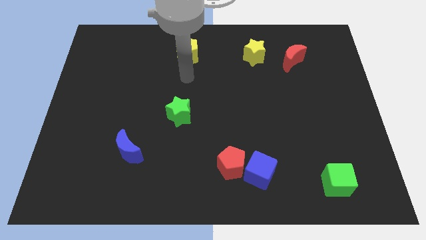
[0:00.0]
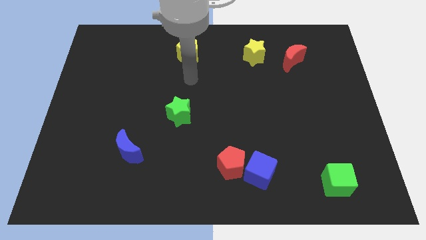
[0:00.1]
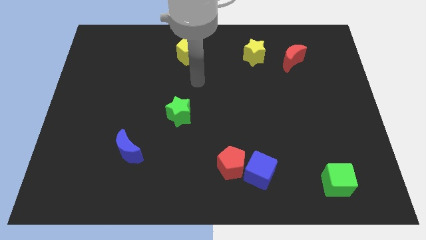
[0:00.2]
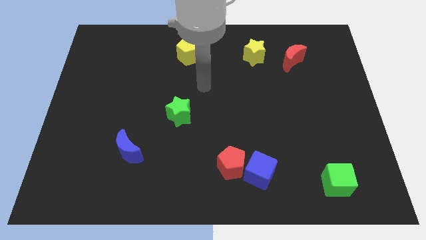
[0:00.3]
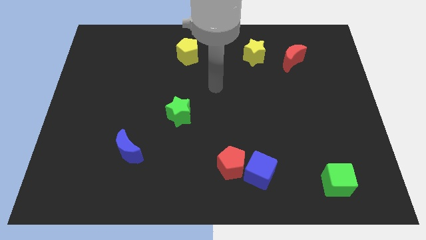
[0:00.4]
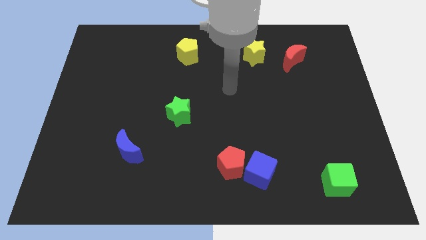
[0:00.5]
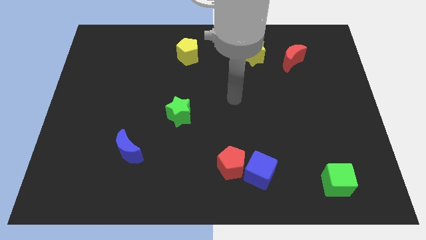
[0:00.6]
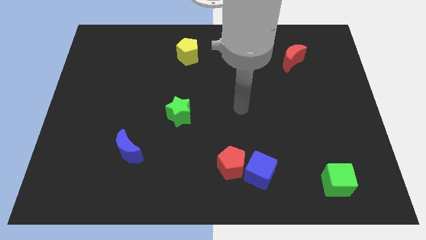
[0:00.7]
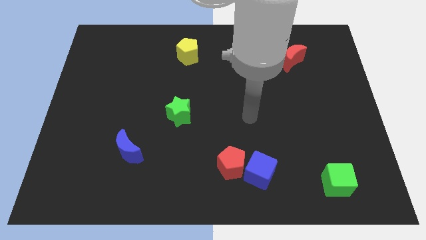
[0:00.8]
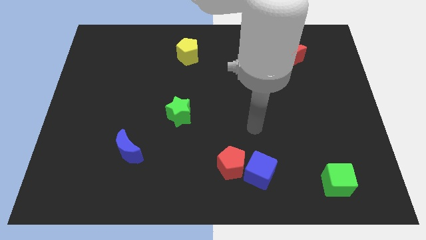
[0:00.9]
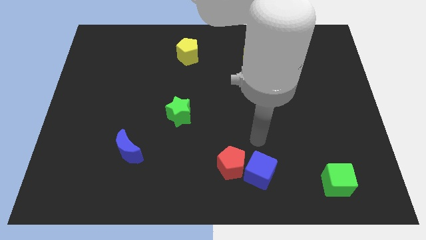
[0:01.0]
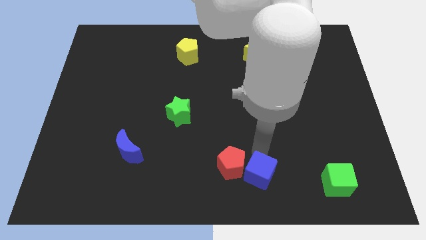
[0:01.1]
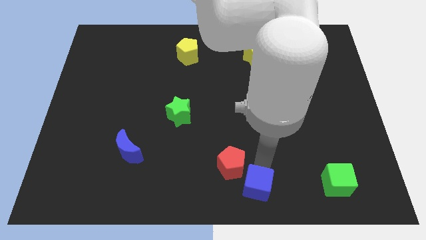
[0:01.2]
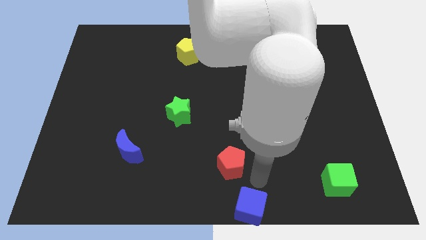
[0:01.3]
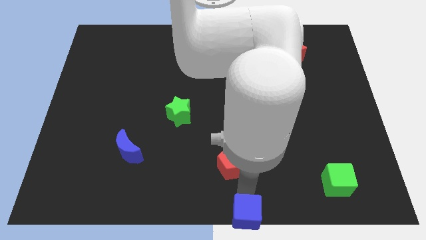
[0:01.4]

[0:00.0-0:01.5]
separate the red pentagon from the blue cube

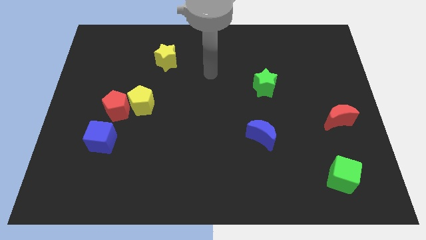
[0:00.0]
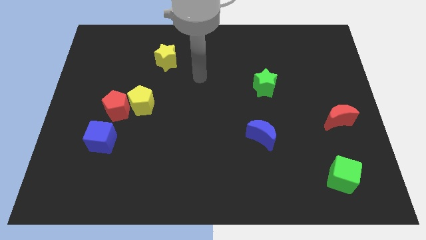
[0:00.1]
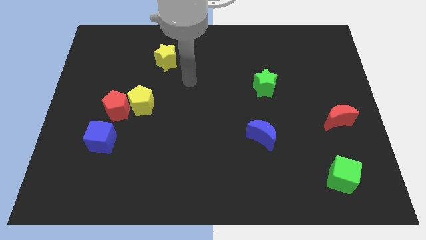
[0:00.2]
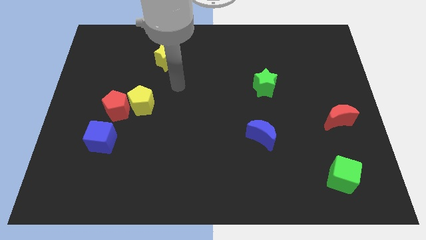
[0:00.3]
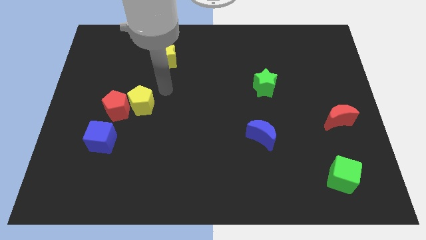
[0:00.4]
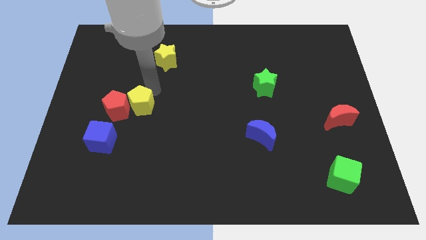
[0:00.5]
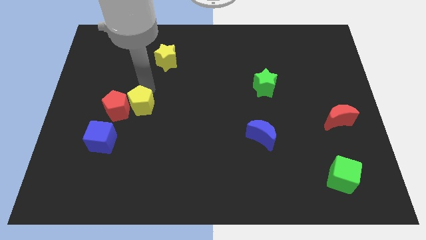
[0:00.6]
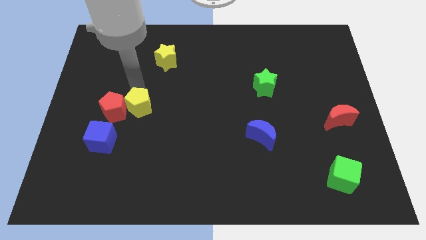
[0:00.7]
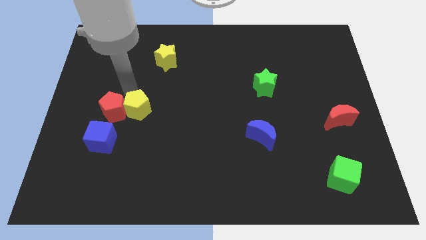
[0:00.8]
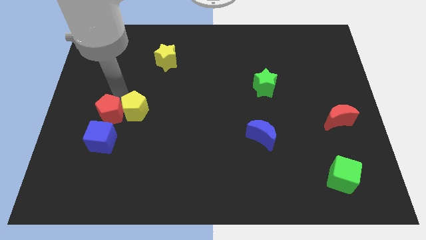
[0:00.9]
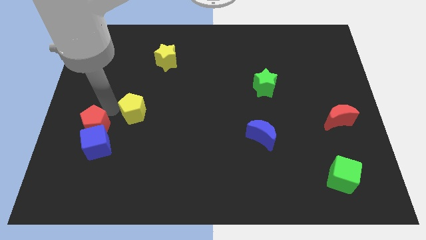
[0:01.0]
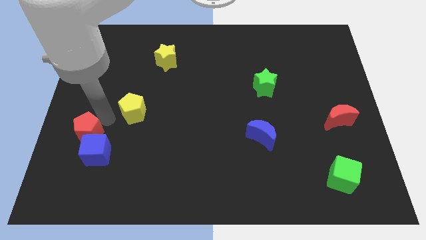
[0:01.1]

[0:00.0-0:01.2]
pull the yellow pentagon apart from the red pentagon

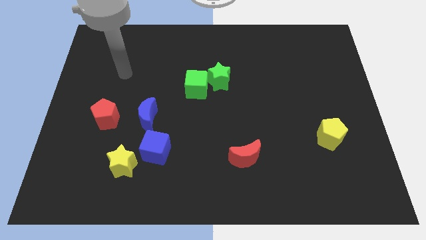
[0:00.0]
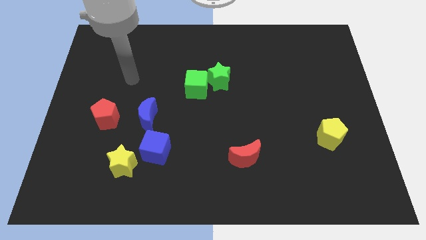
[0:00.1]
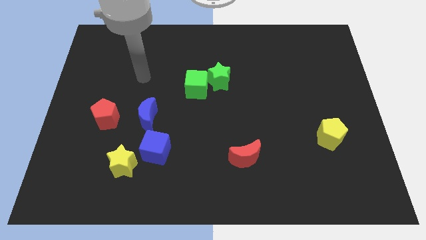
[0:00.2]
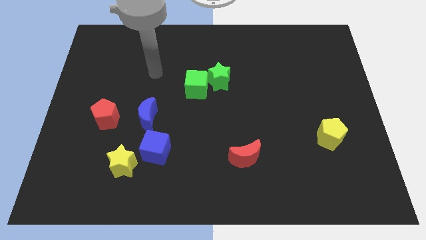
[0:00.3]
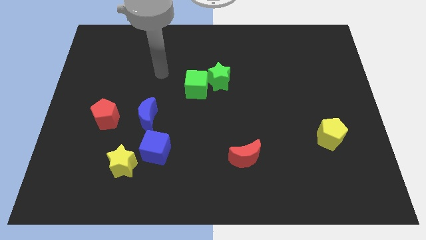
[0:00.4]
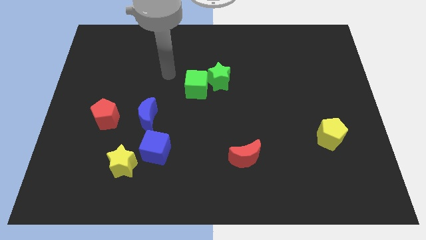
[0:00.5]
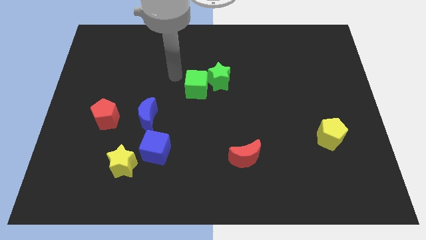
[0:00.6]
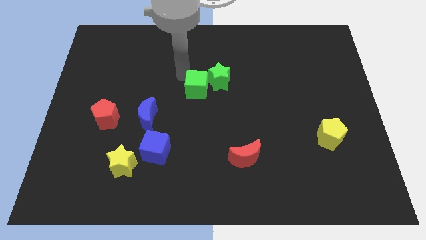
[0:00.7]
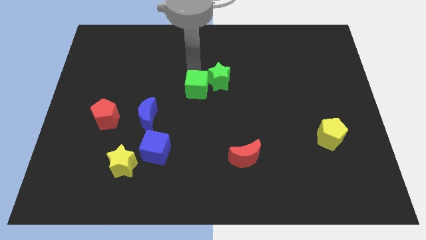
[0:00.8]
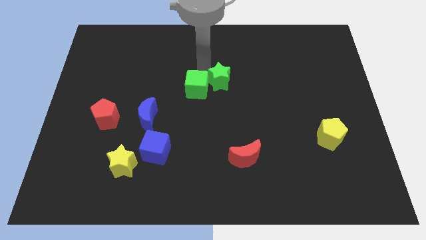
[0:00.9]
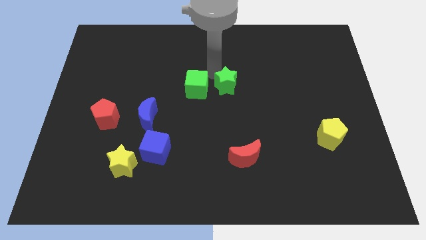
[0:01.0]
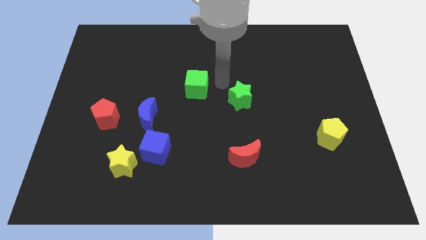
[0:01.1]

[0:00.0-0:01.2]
separate the green cube from the green star

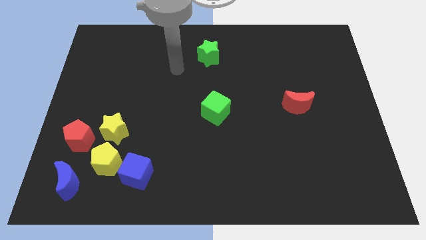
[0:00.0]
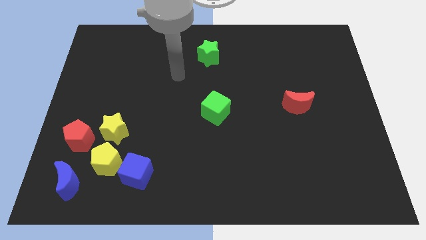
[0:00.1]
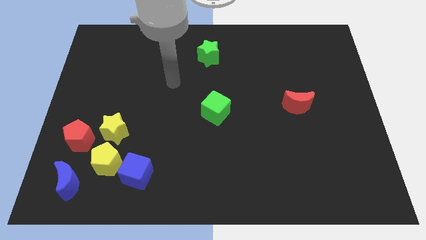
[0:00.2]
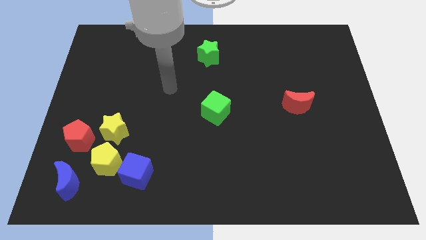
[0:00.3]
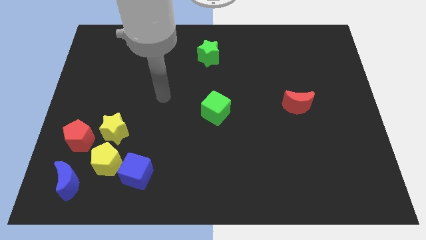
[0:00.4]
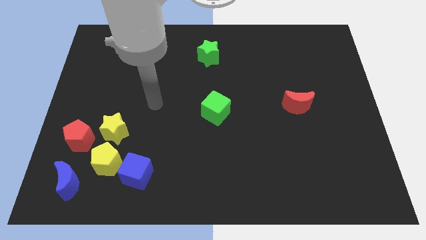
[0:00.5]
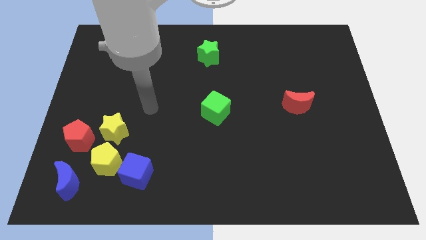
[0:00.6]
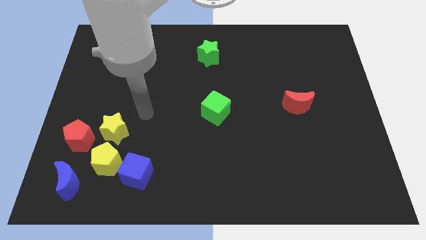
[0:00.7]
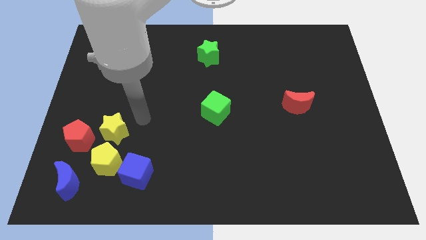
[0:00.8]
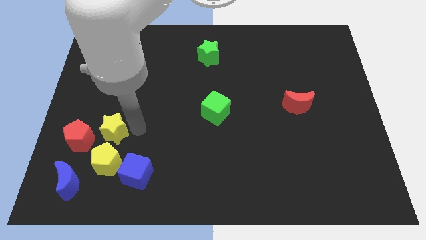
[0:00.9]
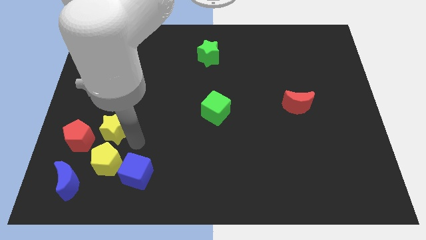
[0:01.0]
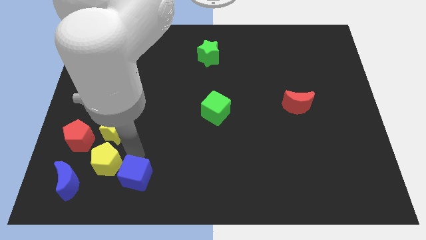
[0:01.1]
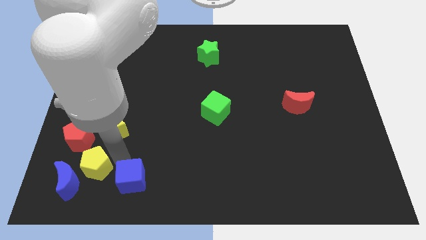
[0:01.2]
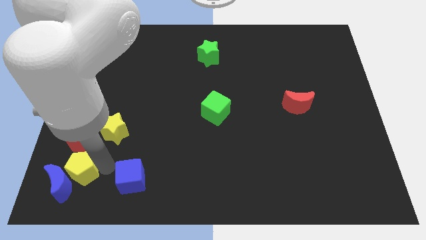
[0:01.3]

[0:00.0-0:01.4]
pull the blue cube apart from the yellow pentagon

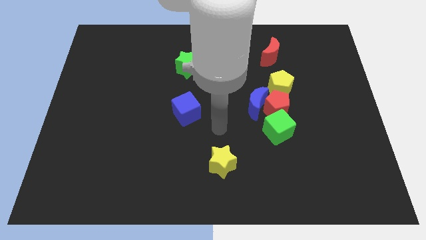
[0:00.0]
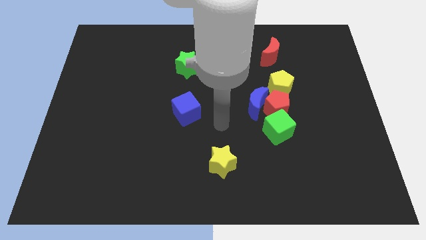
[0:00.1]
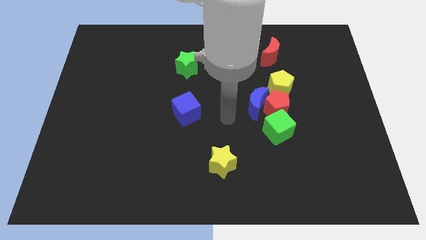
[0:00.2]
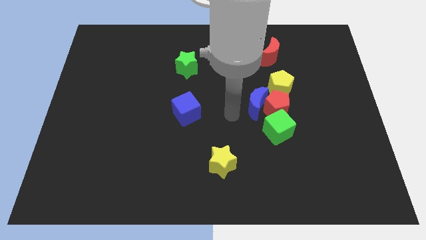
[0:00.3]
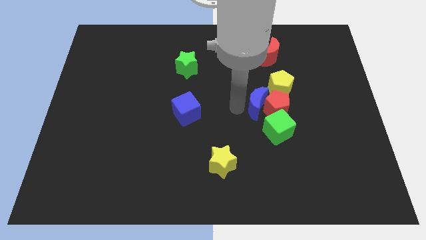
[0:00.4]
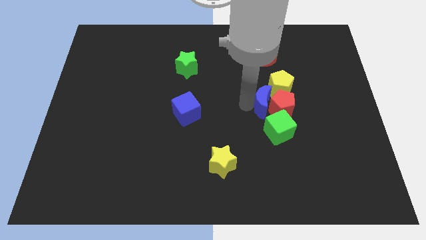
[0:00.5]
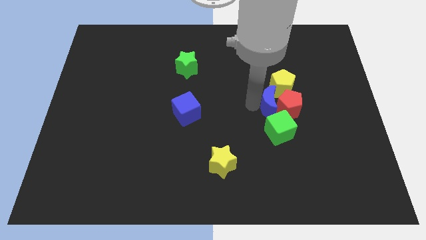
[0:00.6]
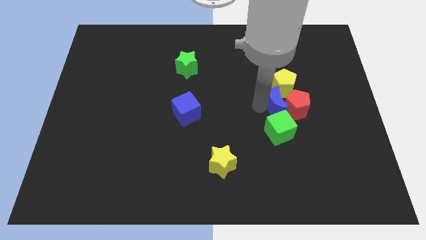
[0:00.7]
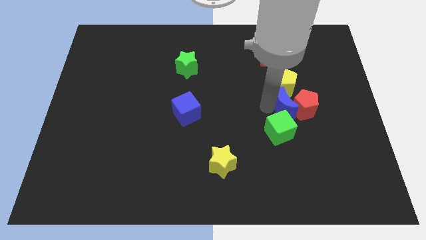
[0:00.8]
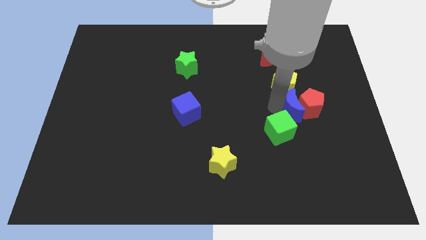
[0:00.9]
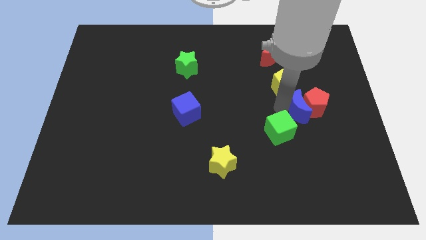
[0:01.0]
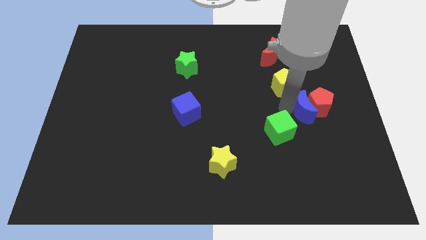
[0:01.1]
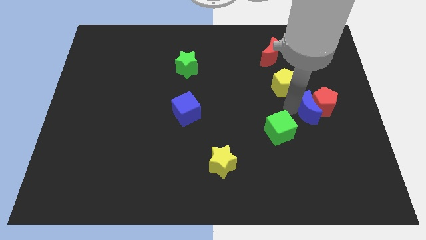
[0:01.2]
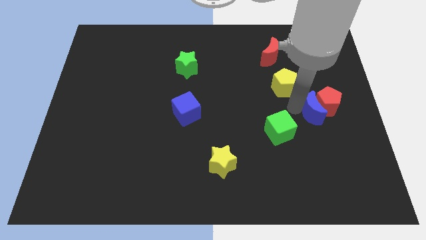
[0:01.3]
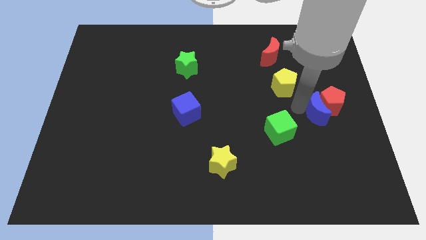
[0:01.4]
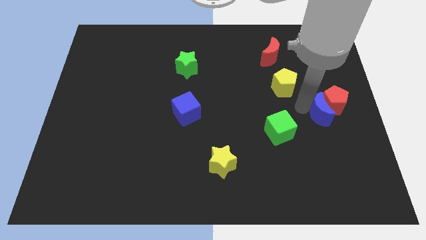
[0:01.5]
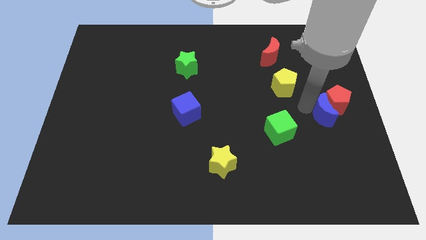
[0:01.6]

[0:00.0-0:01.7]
separate the red pentagon from the blue moon, green cube, and yellow pentagon

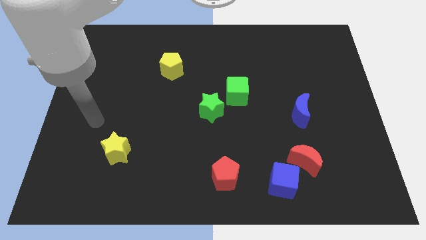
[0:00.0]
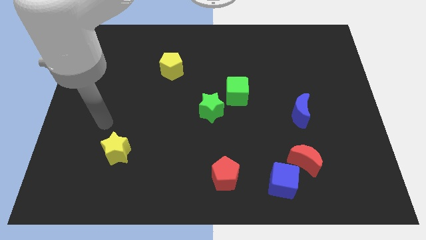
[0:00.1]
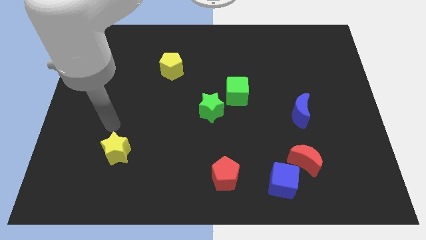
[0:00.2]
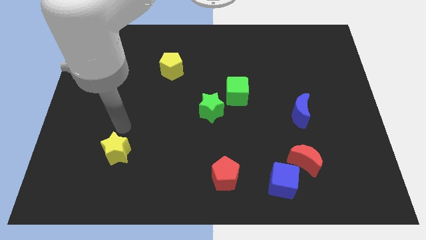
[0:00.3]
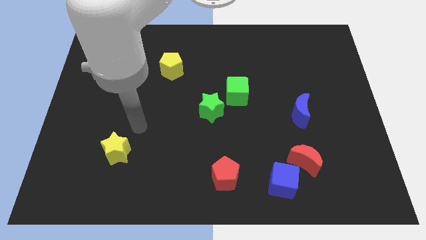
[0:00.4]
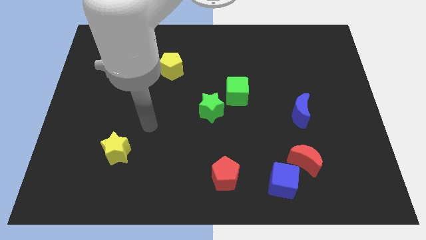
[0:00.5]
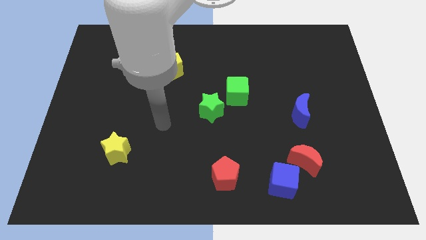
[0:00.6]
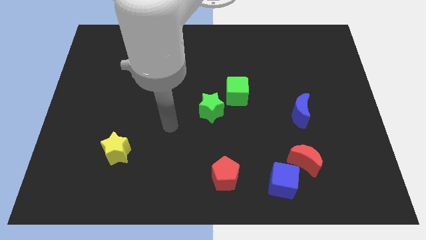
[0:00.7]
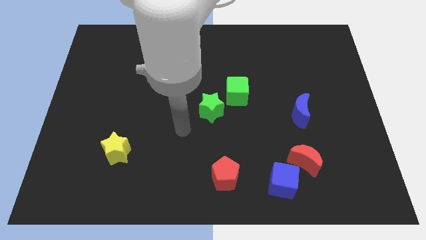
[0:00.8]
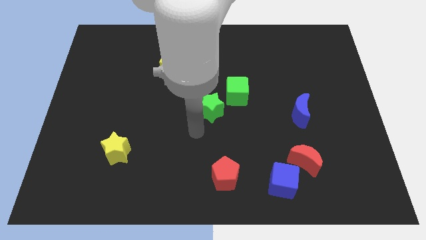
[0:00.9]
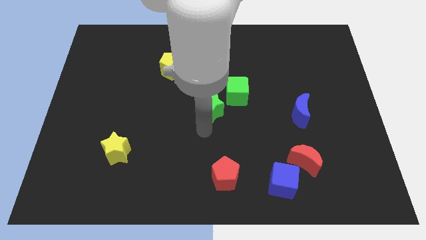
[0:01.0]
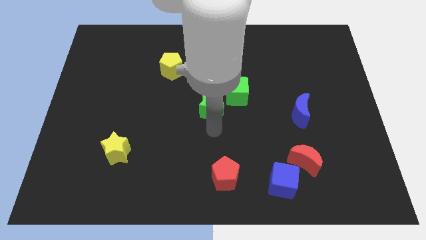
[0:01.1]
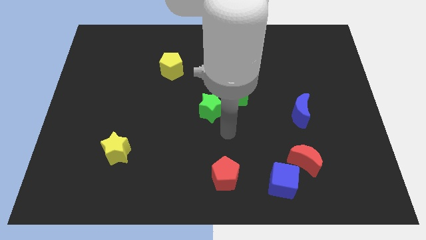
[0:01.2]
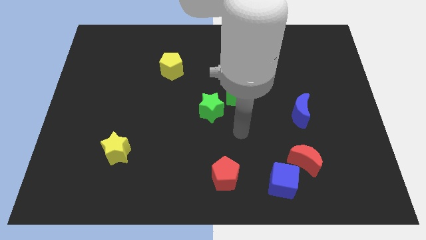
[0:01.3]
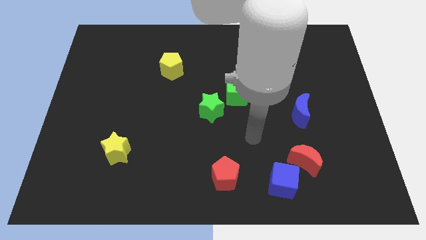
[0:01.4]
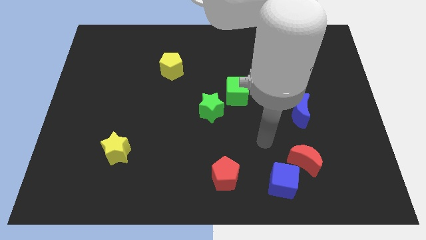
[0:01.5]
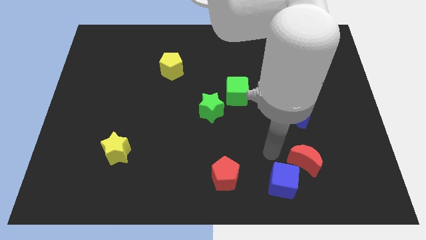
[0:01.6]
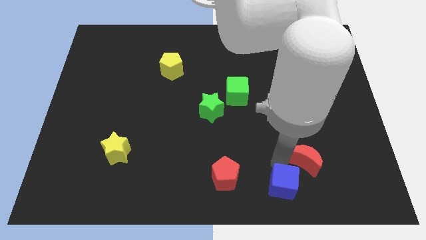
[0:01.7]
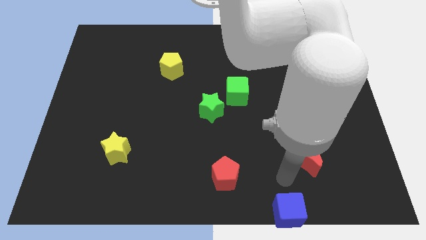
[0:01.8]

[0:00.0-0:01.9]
move the red moon away from the blue cube

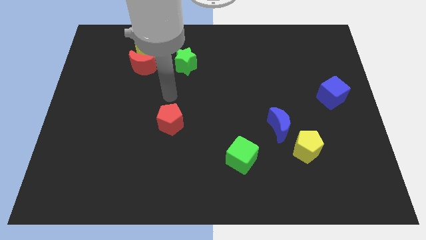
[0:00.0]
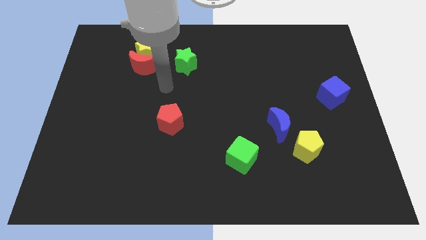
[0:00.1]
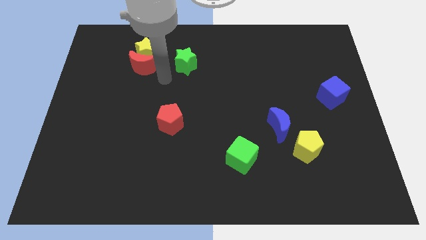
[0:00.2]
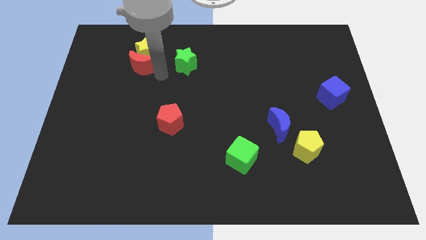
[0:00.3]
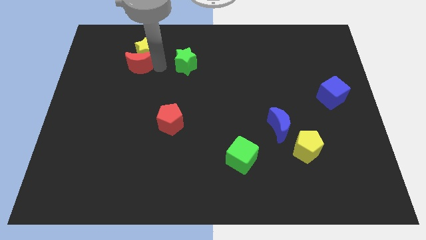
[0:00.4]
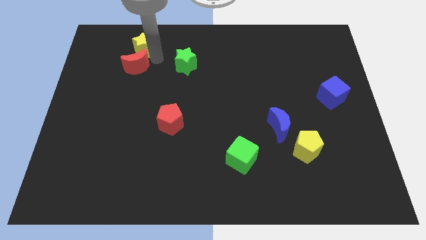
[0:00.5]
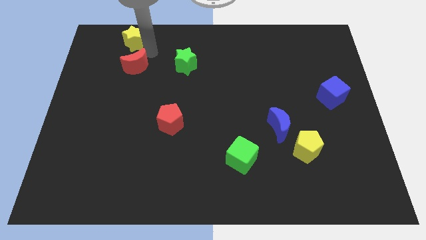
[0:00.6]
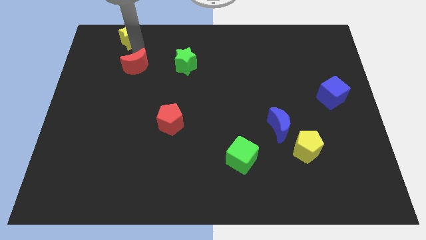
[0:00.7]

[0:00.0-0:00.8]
pull the red moon apart from the yellow star
